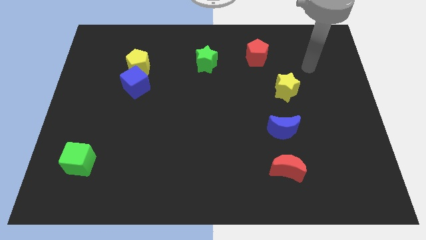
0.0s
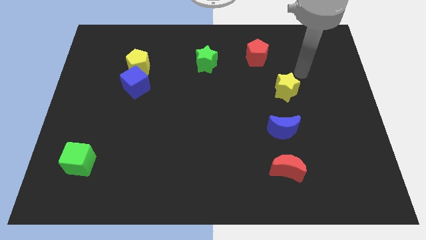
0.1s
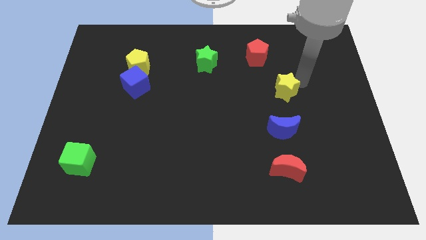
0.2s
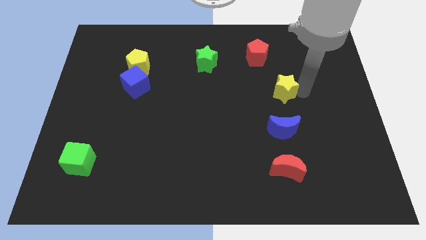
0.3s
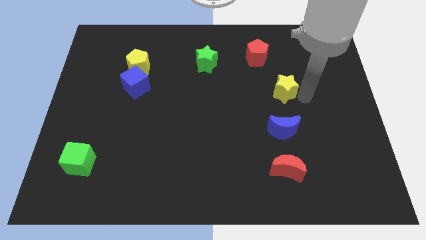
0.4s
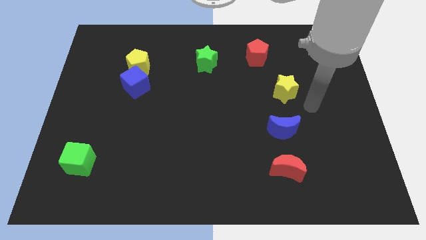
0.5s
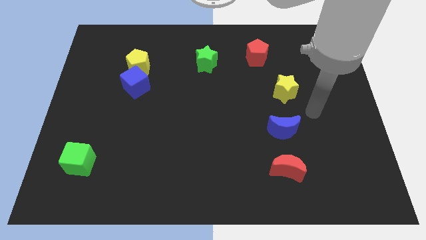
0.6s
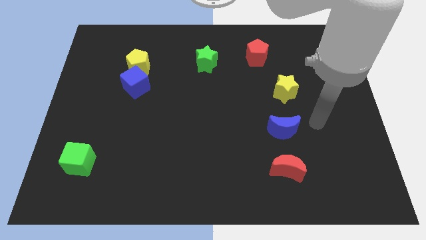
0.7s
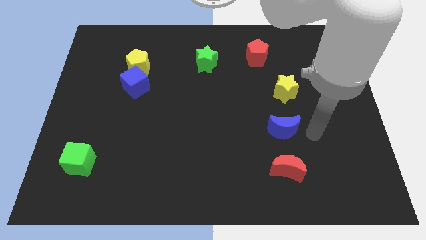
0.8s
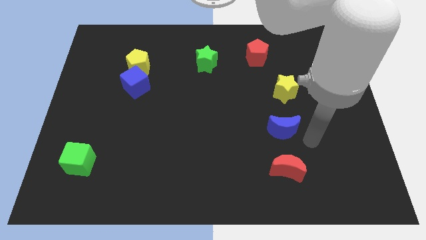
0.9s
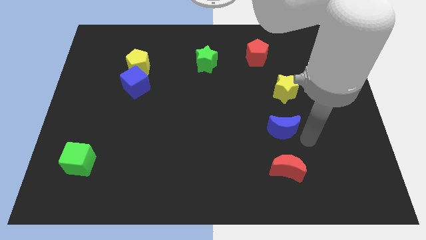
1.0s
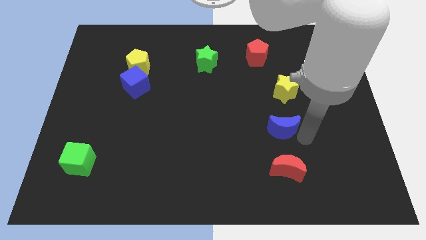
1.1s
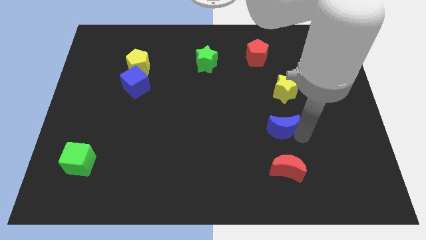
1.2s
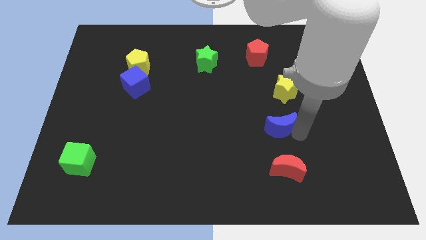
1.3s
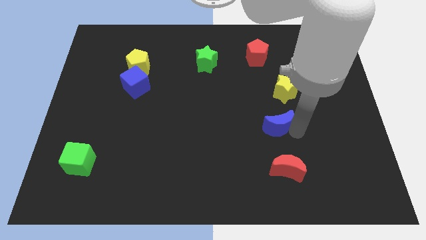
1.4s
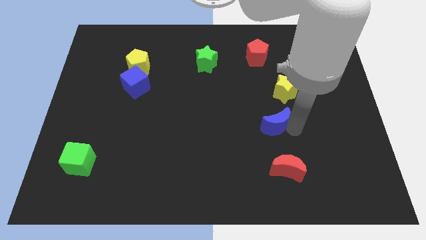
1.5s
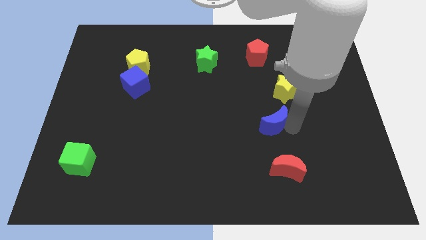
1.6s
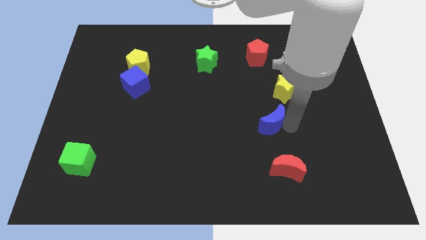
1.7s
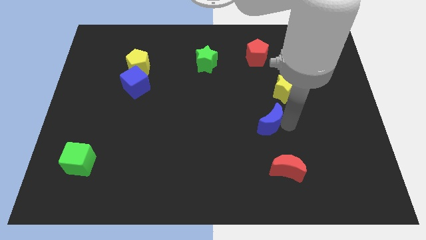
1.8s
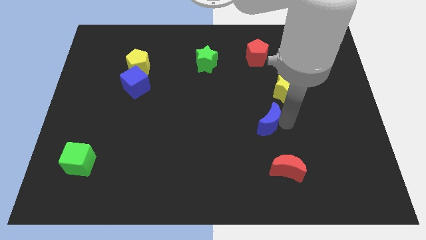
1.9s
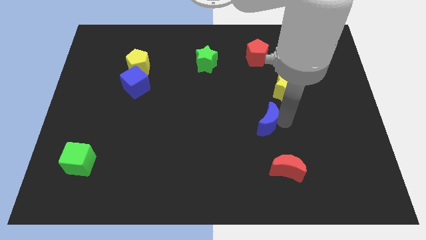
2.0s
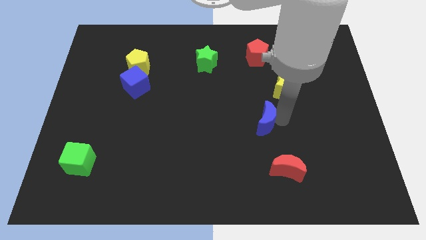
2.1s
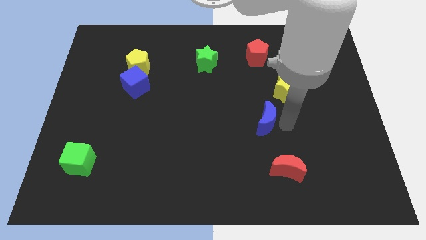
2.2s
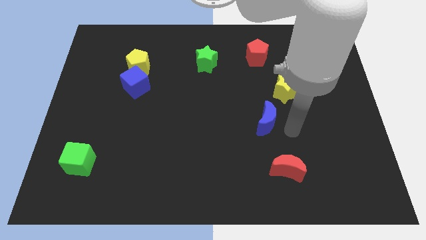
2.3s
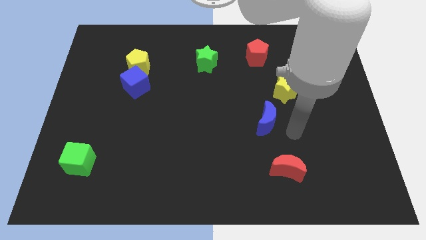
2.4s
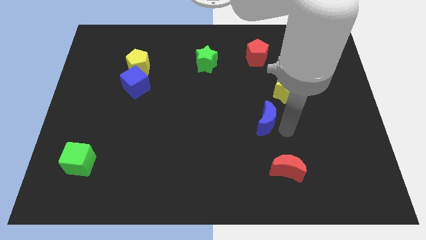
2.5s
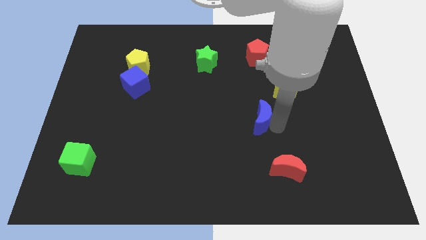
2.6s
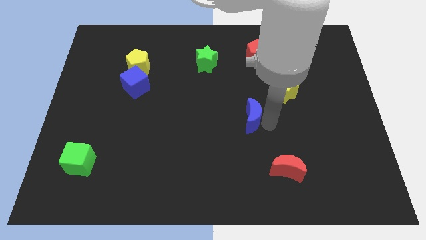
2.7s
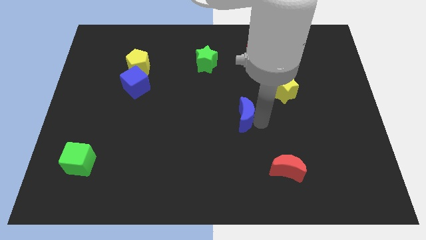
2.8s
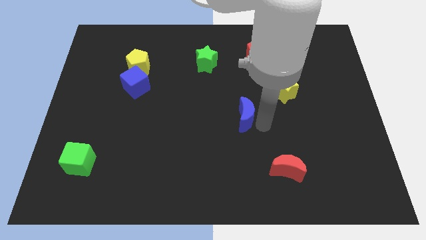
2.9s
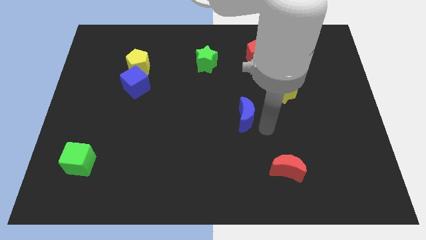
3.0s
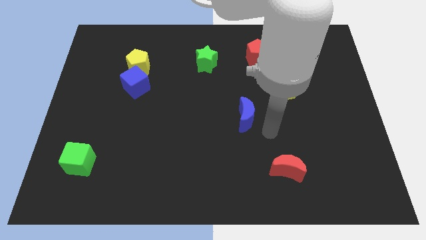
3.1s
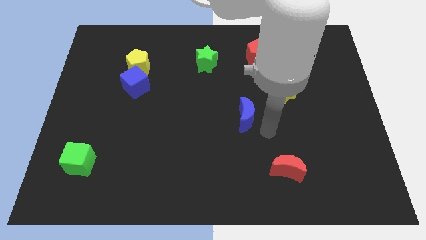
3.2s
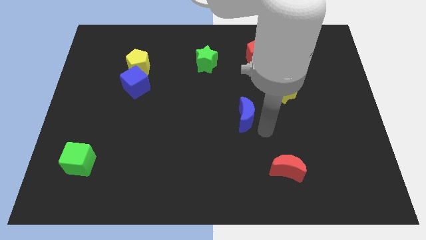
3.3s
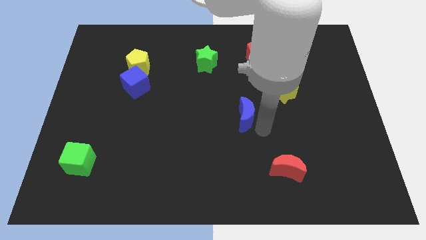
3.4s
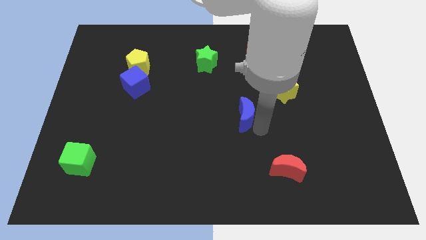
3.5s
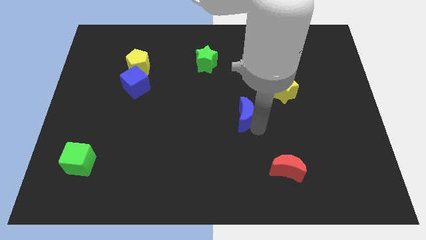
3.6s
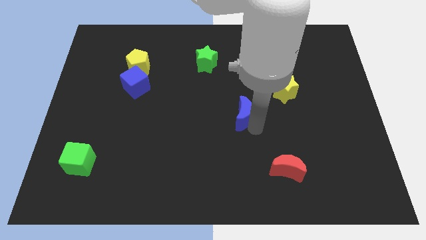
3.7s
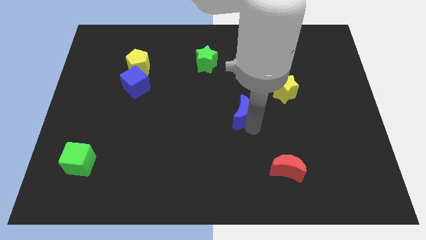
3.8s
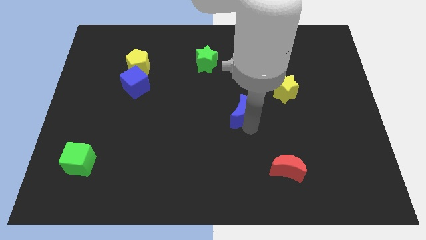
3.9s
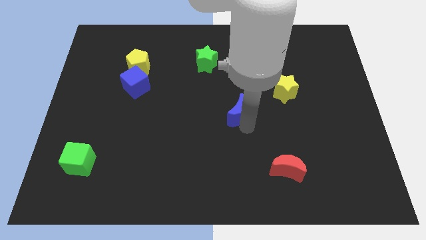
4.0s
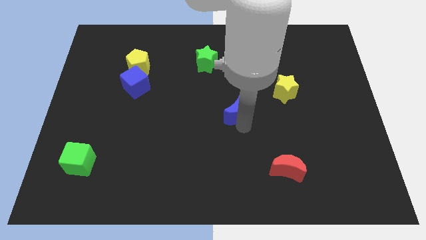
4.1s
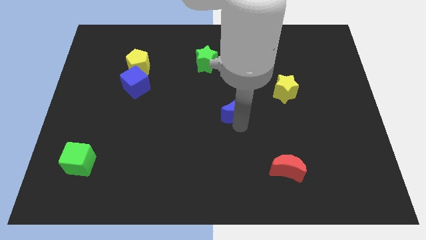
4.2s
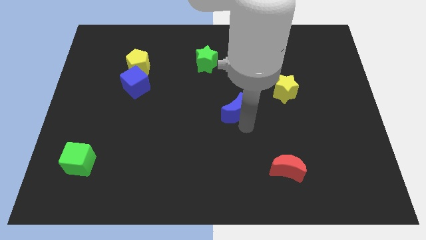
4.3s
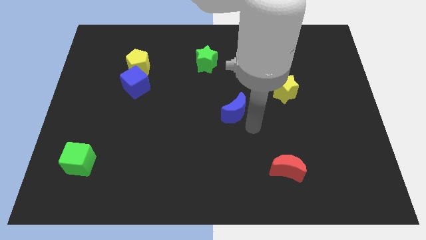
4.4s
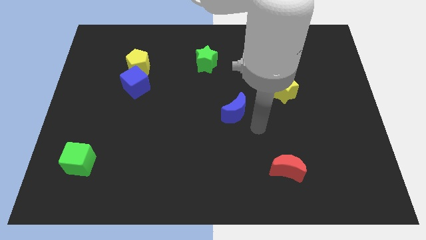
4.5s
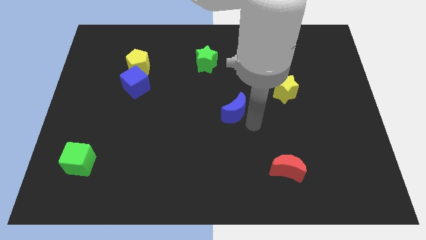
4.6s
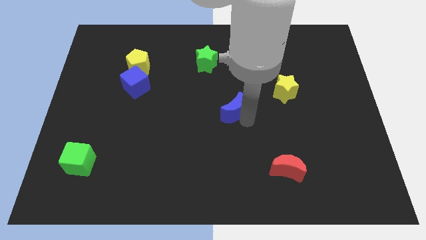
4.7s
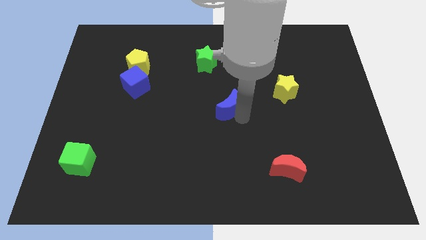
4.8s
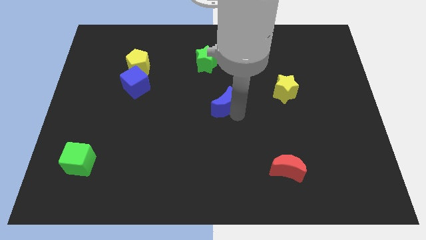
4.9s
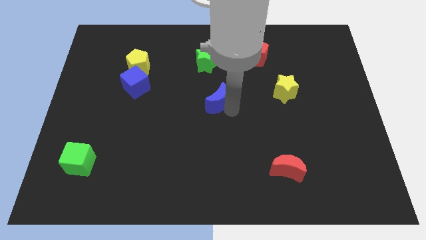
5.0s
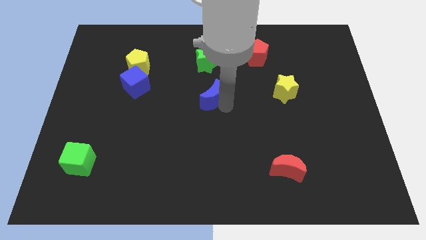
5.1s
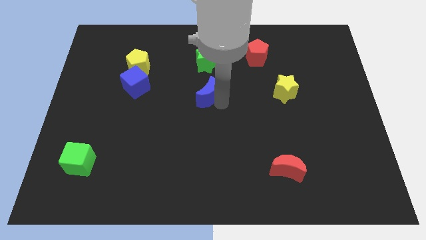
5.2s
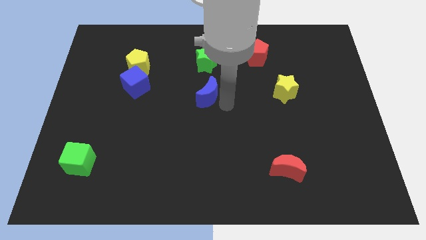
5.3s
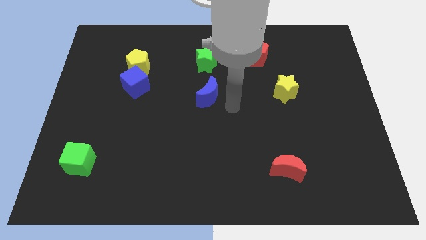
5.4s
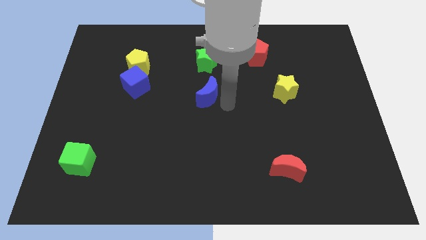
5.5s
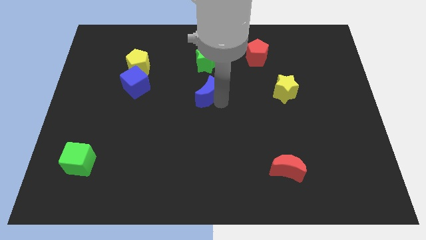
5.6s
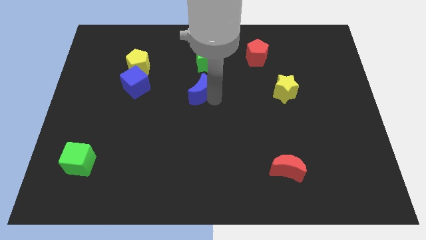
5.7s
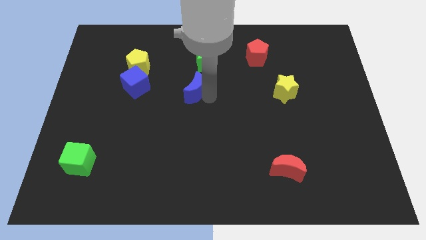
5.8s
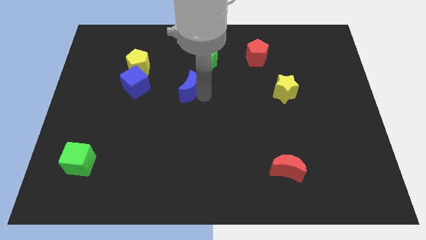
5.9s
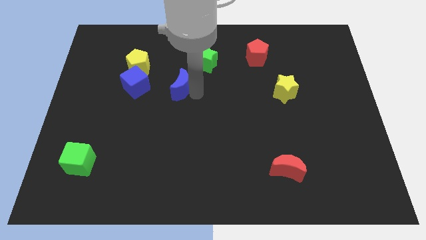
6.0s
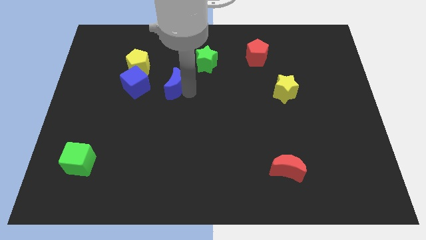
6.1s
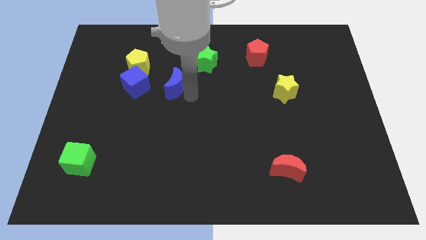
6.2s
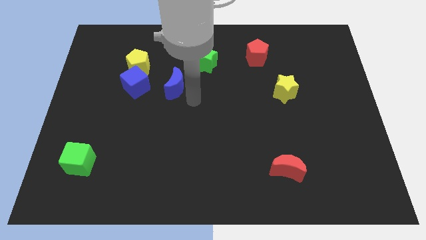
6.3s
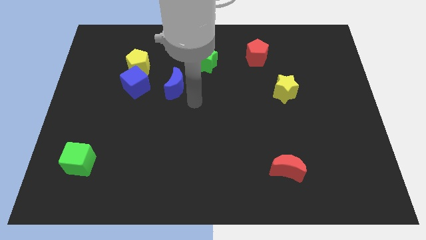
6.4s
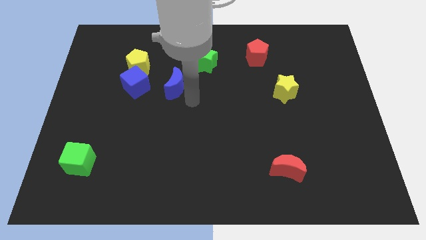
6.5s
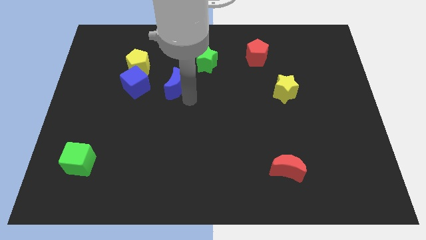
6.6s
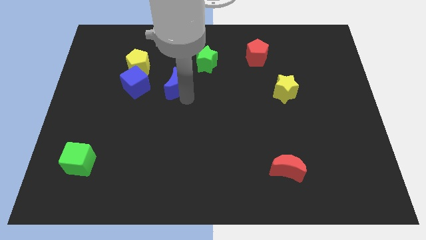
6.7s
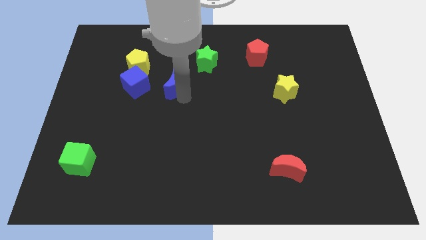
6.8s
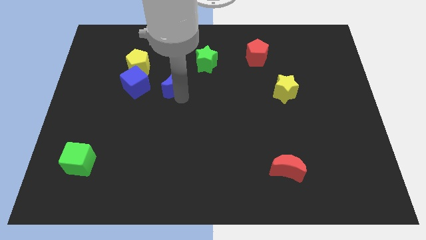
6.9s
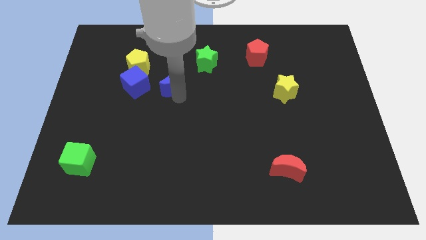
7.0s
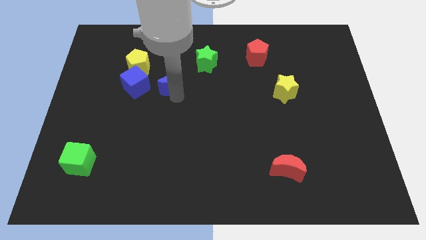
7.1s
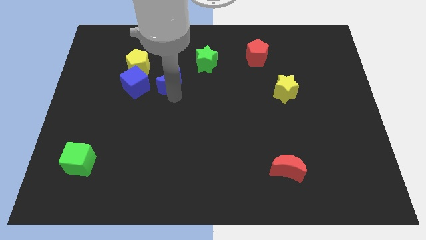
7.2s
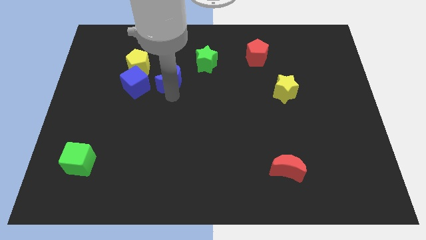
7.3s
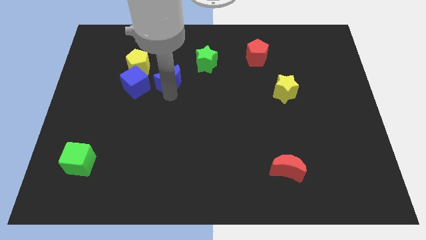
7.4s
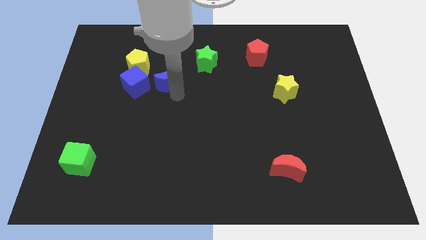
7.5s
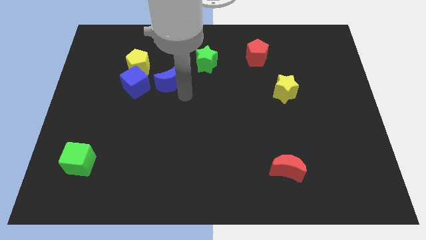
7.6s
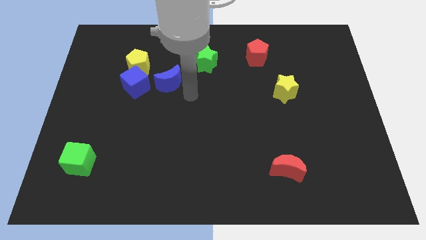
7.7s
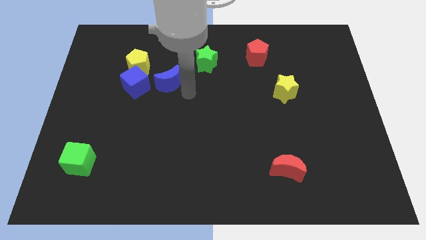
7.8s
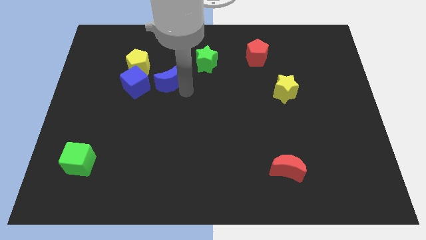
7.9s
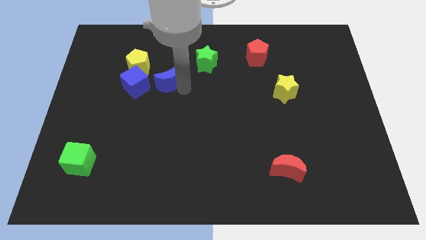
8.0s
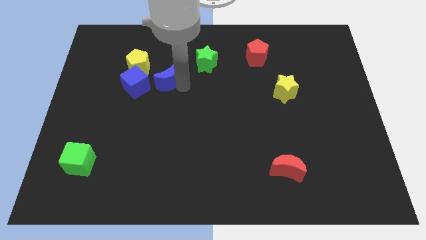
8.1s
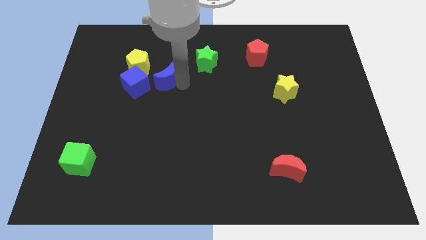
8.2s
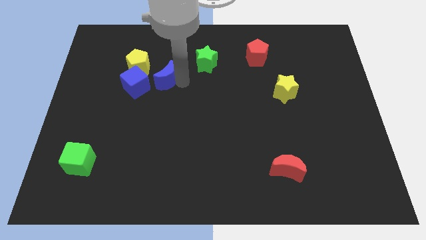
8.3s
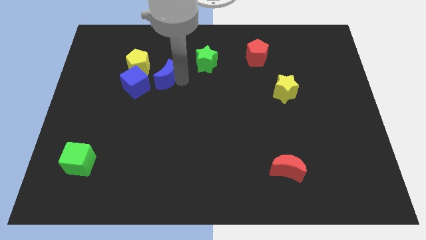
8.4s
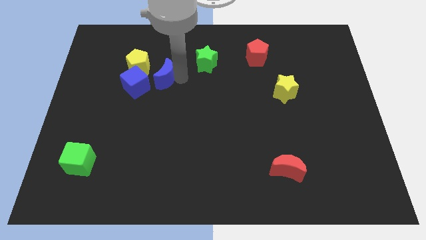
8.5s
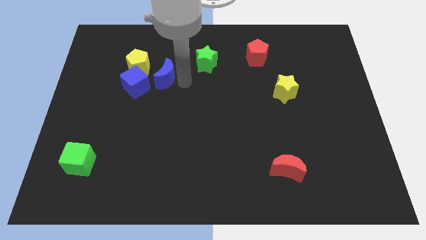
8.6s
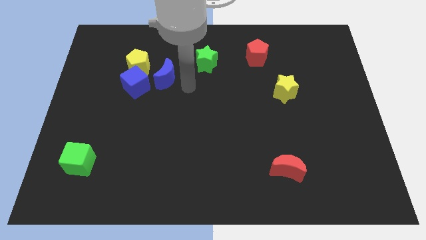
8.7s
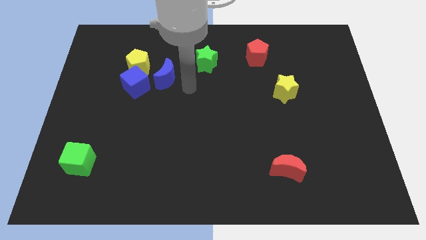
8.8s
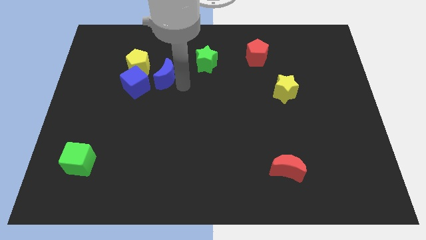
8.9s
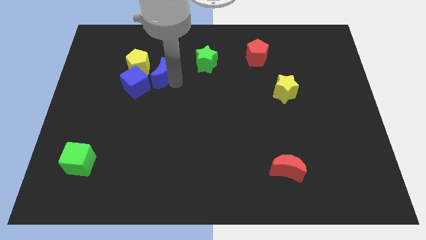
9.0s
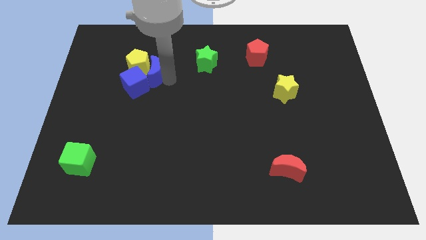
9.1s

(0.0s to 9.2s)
move the blue moon to the yellow pentagon
